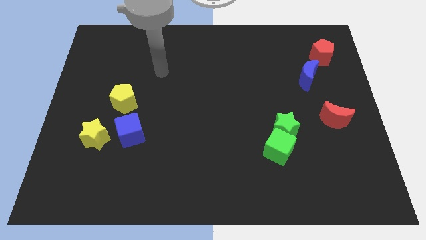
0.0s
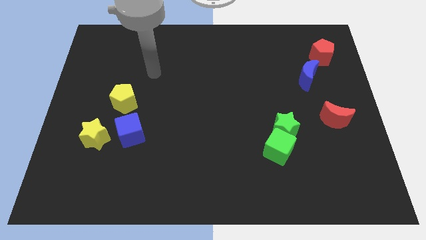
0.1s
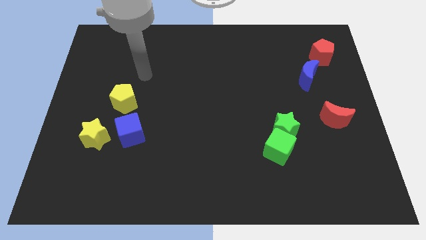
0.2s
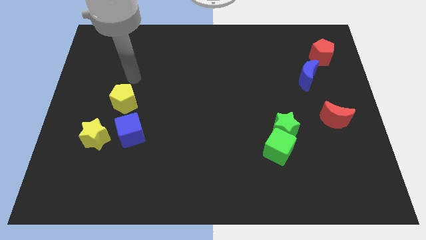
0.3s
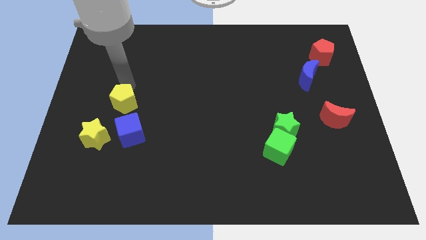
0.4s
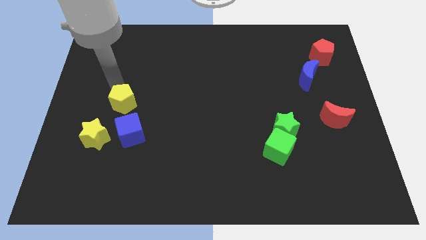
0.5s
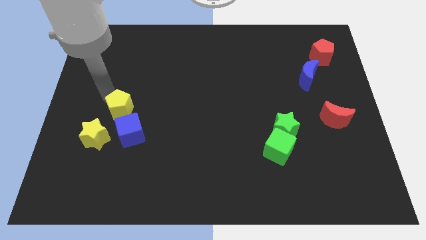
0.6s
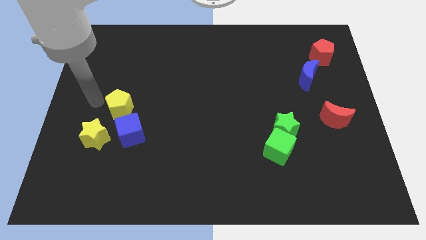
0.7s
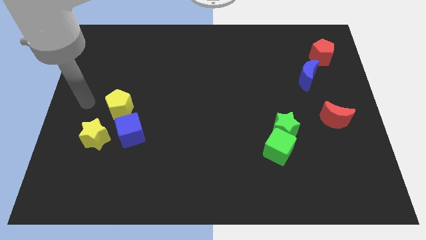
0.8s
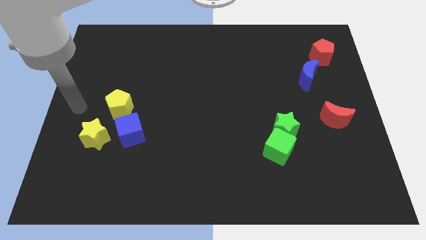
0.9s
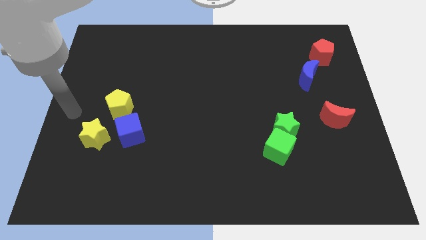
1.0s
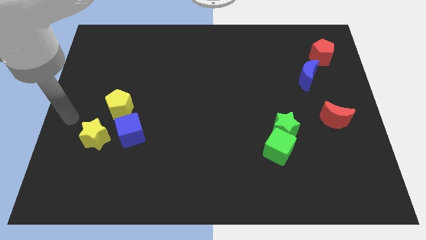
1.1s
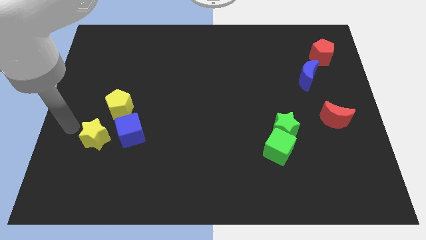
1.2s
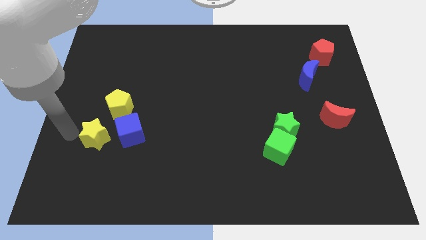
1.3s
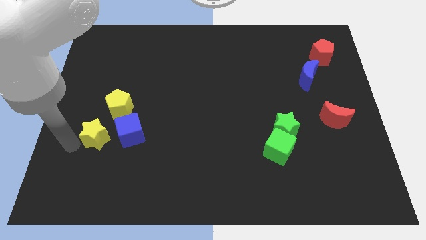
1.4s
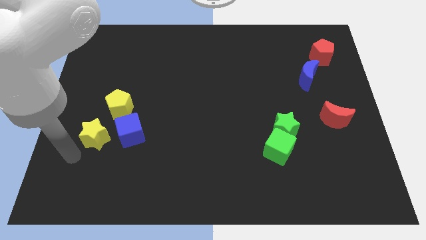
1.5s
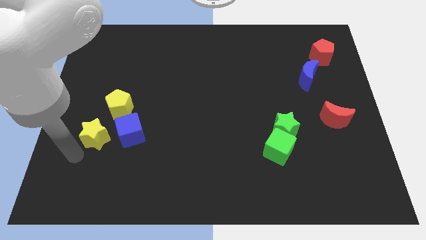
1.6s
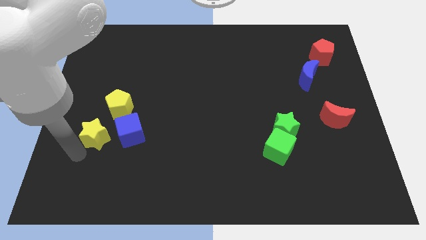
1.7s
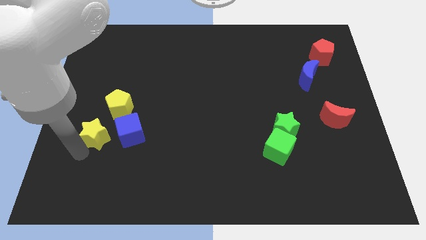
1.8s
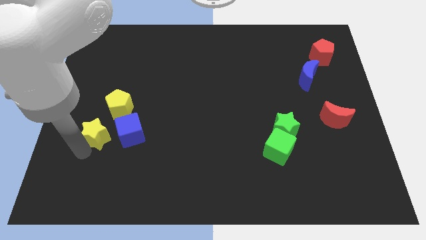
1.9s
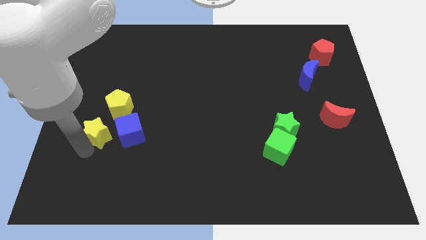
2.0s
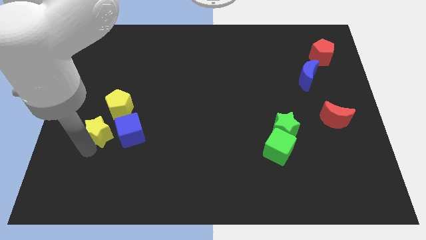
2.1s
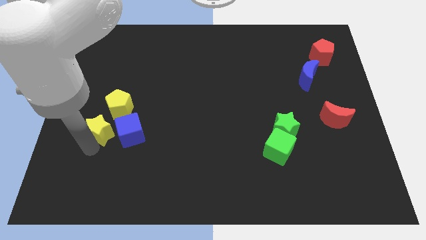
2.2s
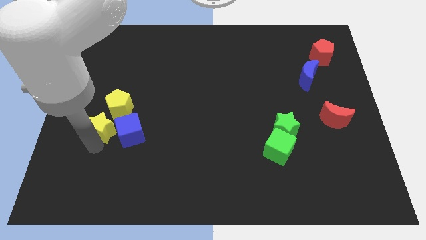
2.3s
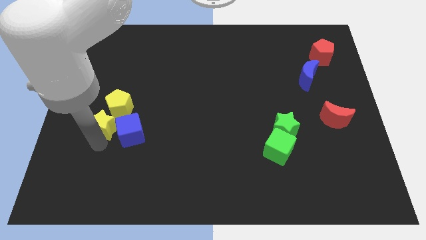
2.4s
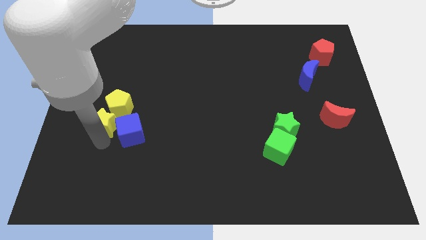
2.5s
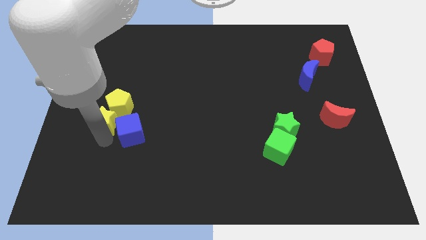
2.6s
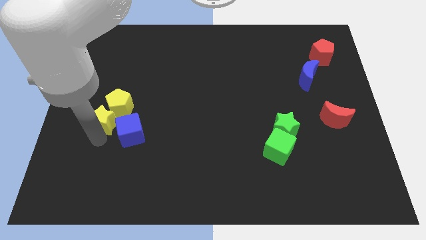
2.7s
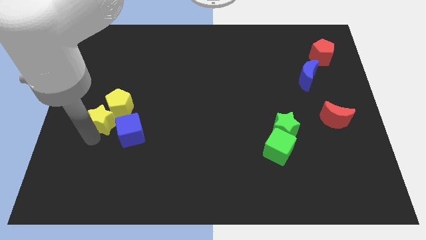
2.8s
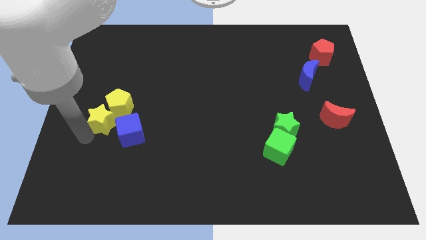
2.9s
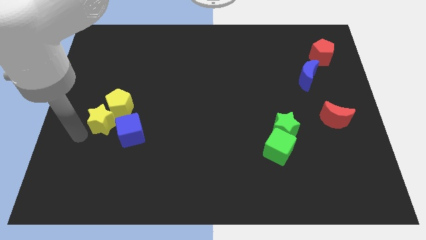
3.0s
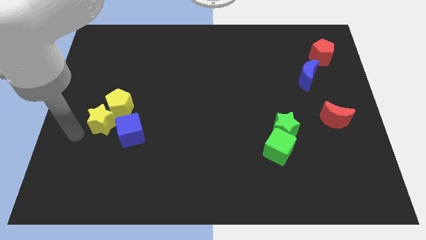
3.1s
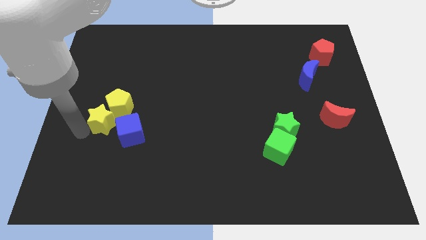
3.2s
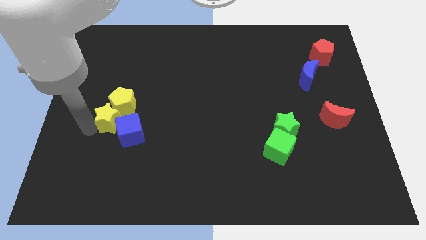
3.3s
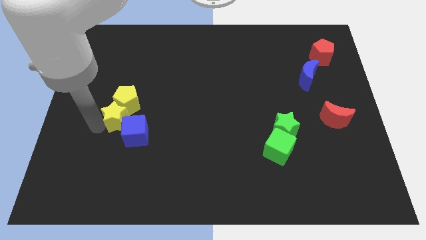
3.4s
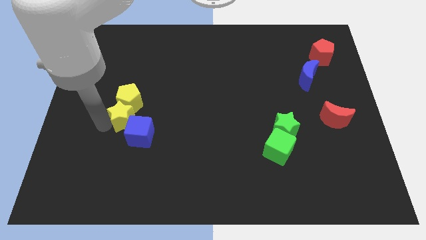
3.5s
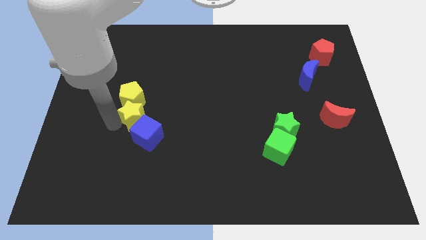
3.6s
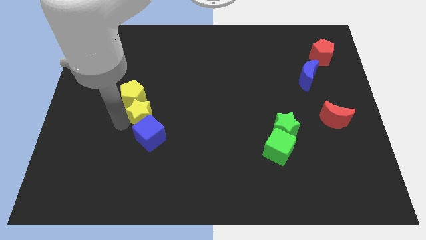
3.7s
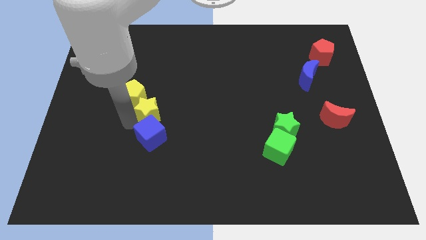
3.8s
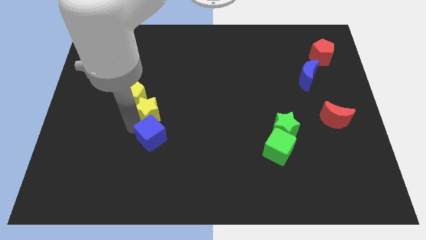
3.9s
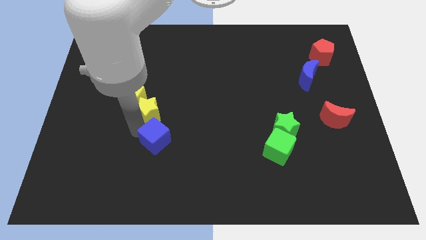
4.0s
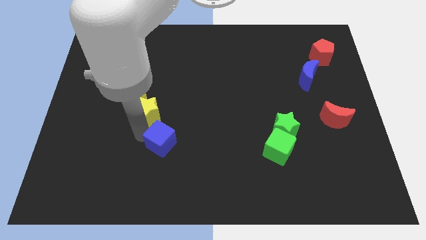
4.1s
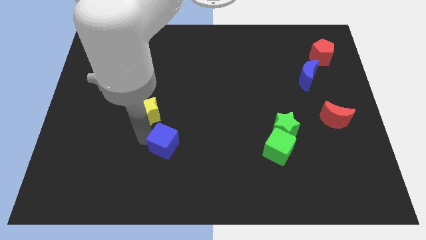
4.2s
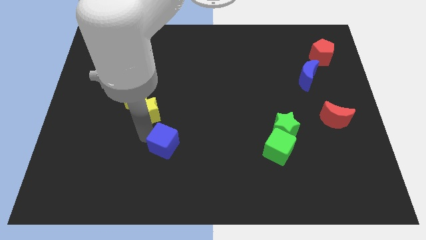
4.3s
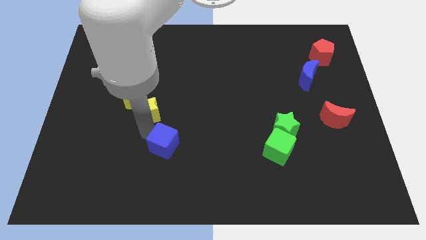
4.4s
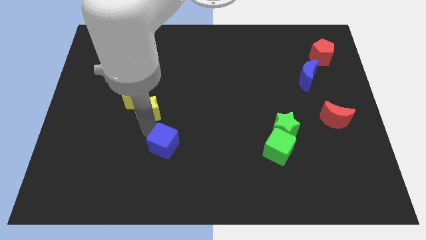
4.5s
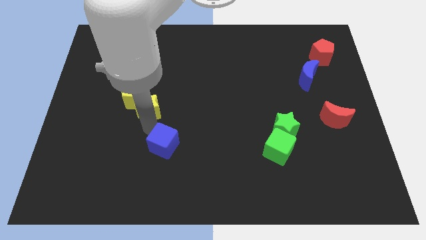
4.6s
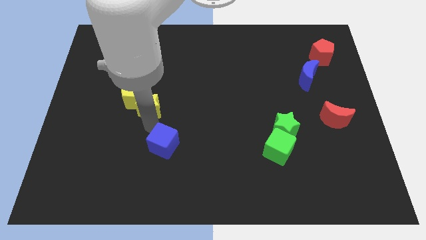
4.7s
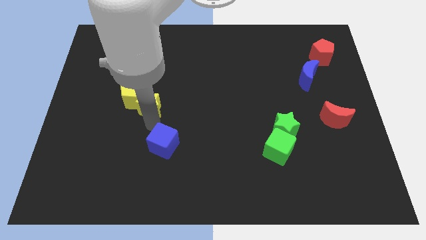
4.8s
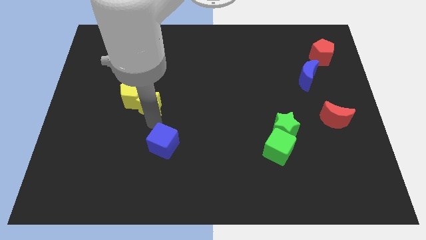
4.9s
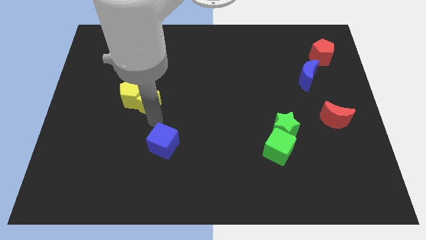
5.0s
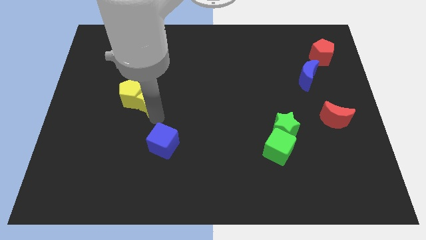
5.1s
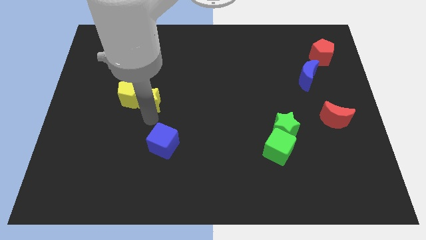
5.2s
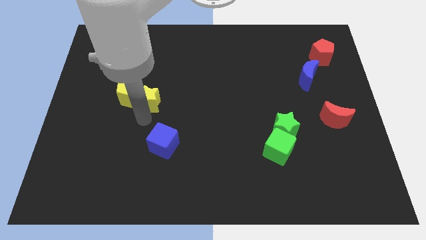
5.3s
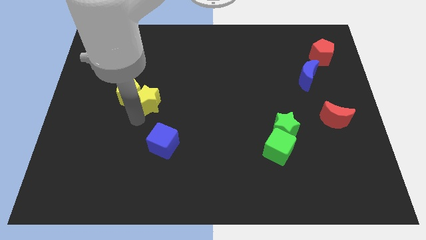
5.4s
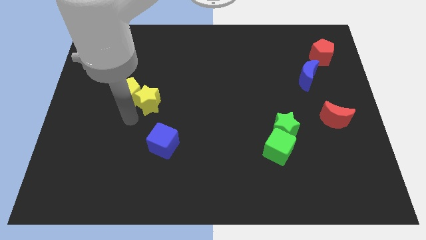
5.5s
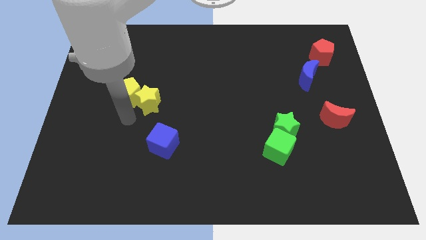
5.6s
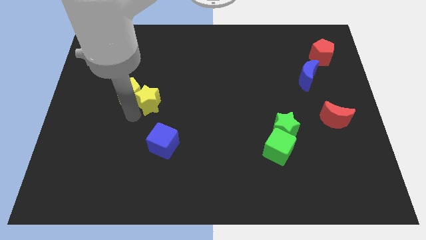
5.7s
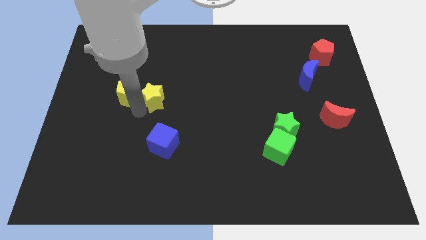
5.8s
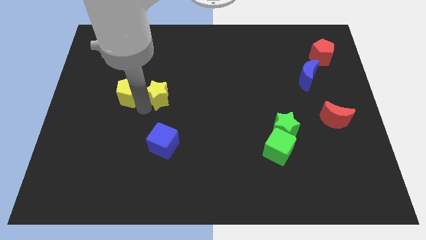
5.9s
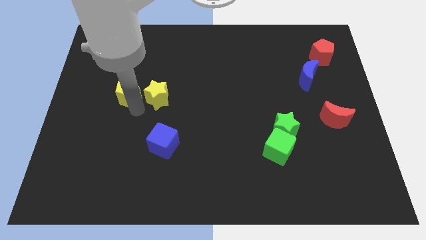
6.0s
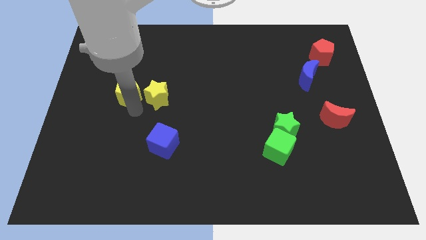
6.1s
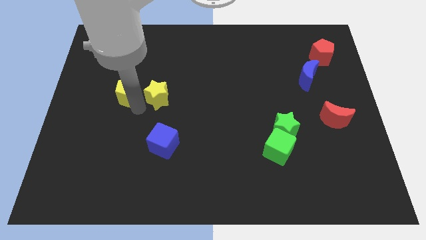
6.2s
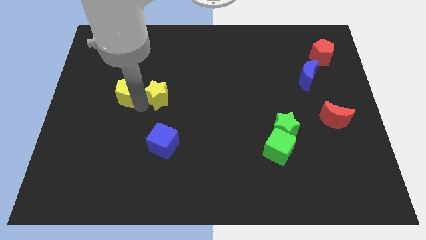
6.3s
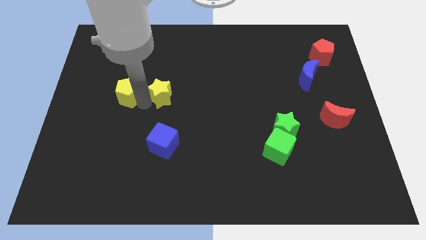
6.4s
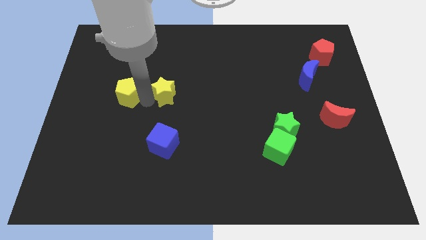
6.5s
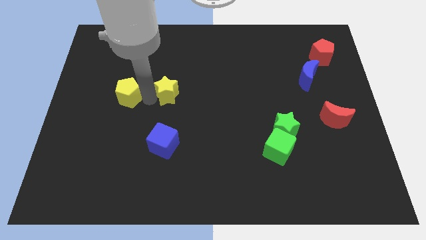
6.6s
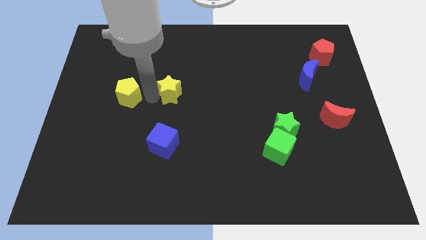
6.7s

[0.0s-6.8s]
move the yellow star upwards and to the right

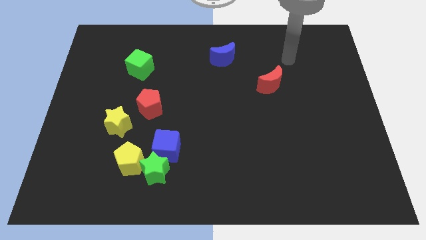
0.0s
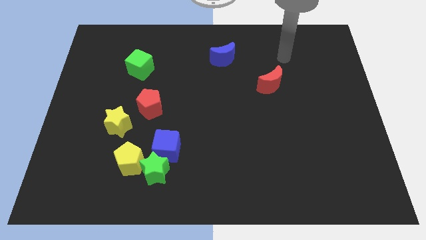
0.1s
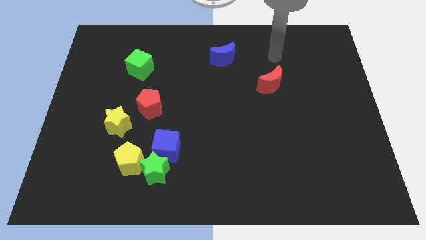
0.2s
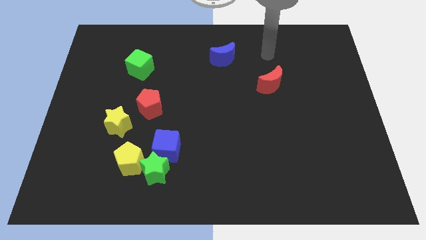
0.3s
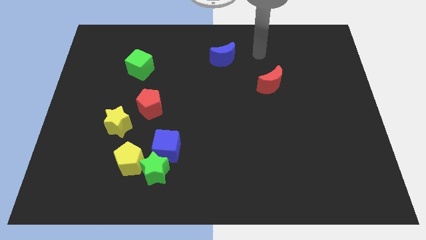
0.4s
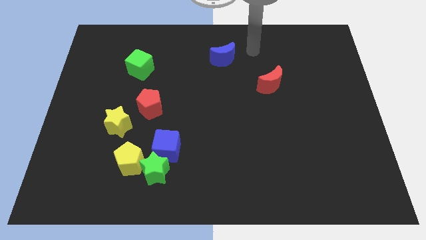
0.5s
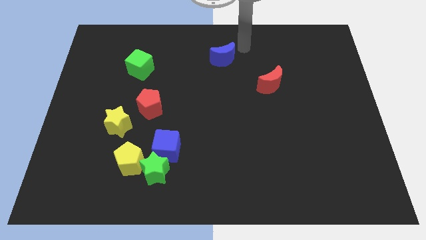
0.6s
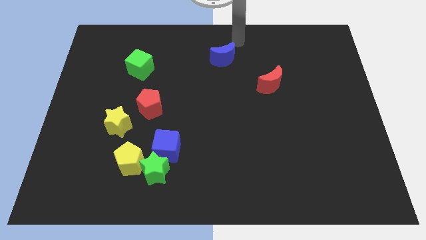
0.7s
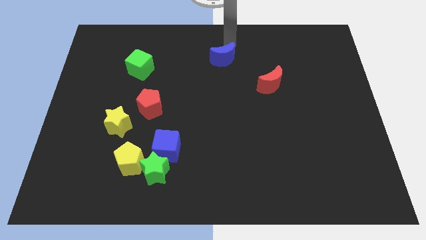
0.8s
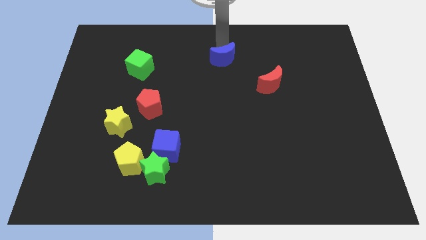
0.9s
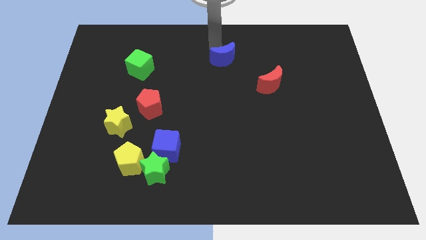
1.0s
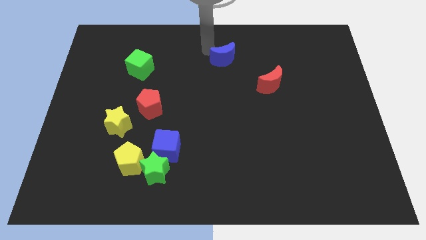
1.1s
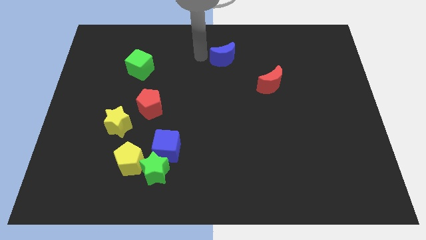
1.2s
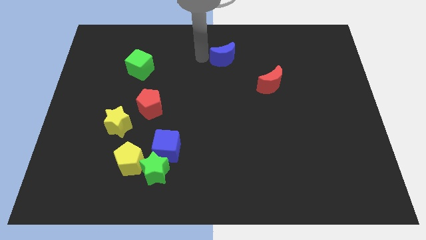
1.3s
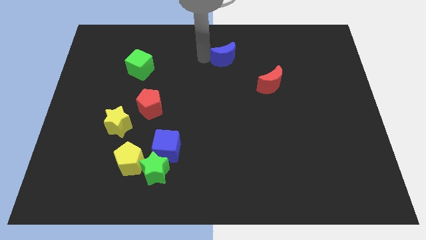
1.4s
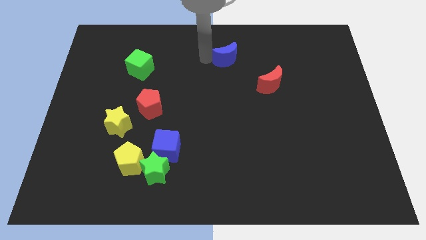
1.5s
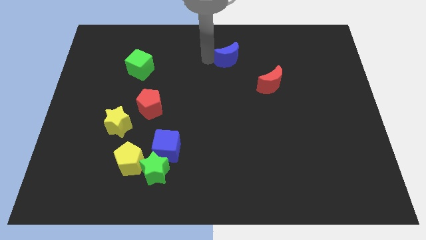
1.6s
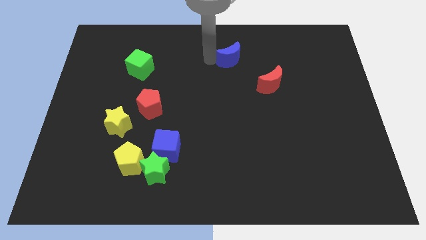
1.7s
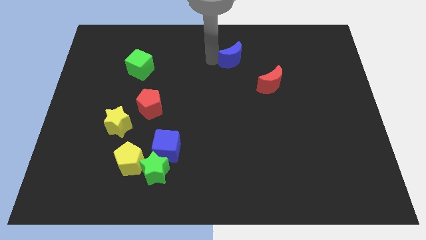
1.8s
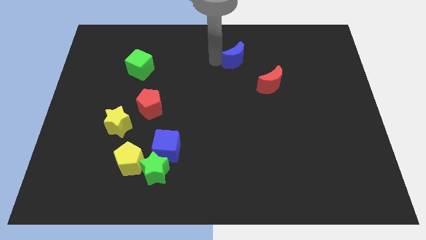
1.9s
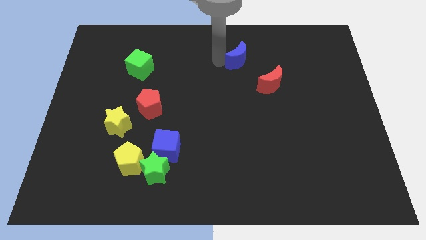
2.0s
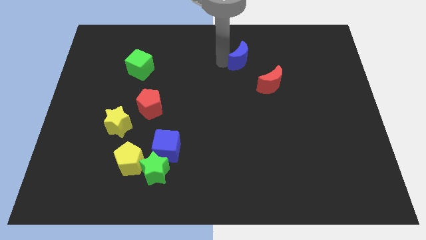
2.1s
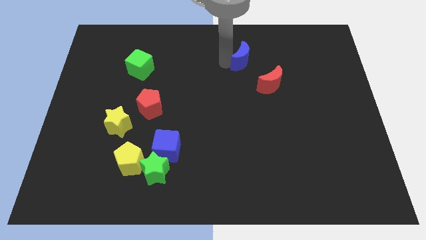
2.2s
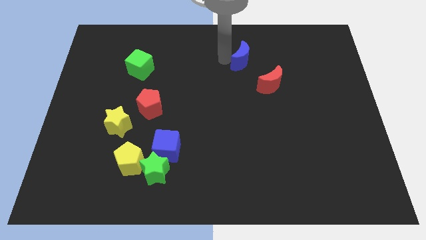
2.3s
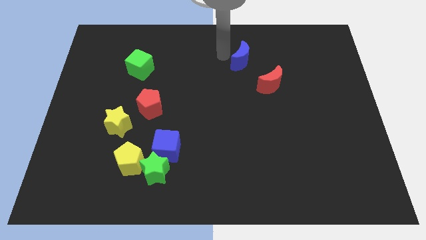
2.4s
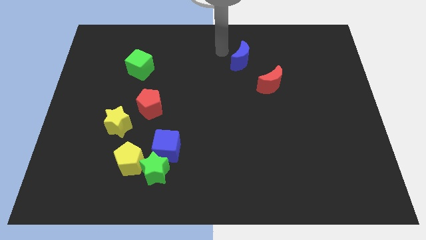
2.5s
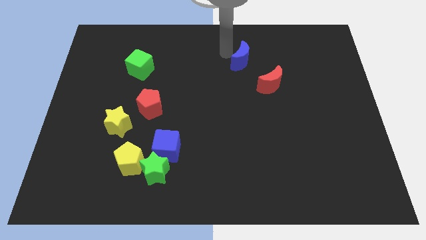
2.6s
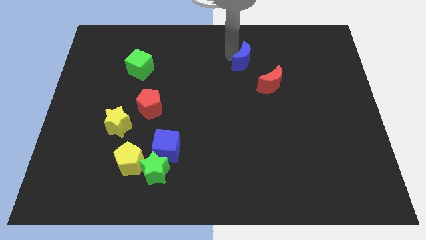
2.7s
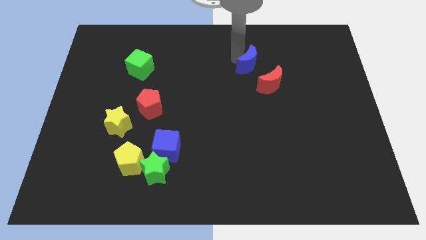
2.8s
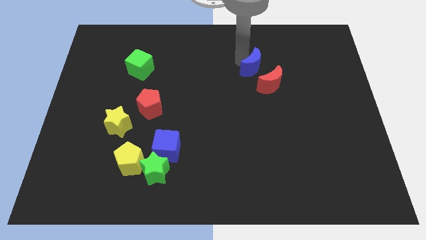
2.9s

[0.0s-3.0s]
slightly move the blue moon down and right diagonally
